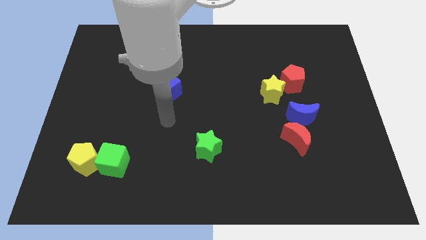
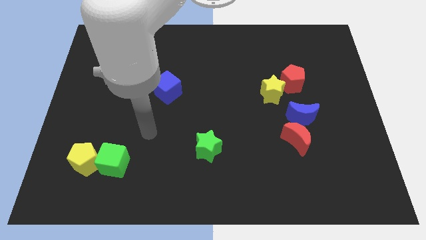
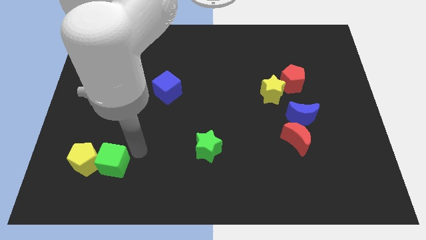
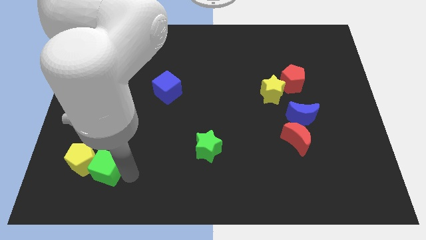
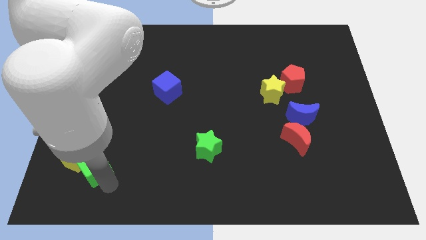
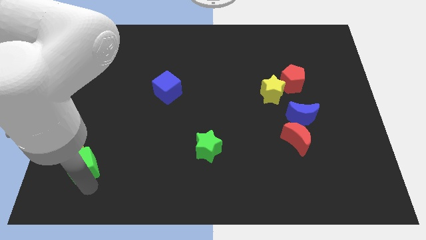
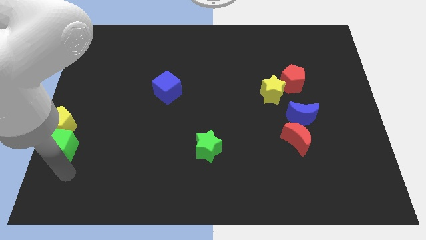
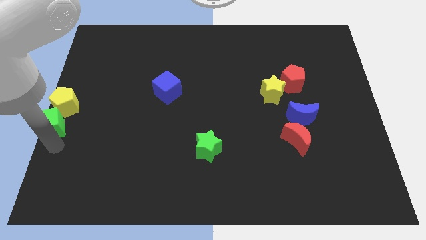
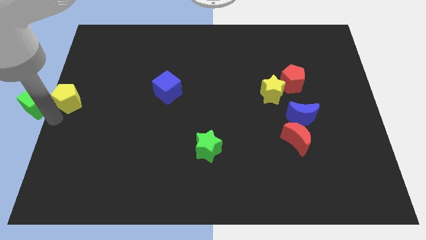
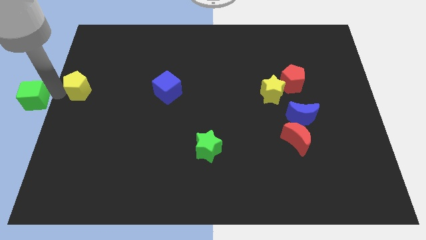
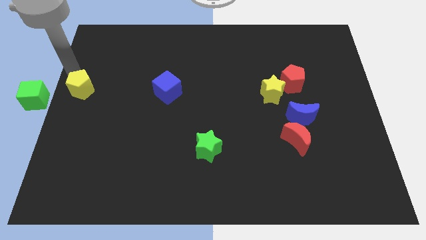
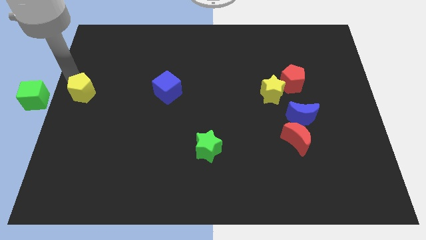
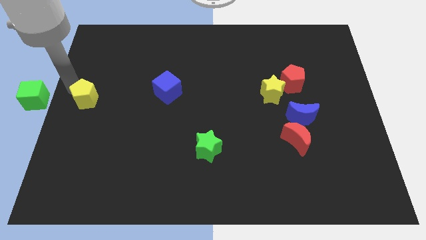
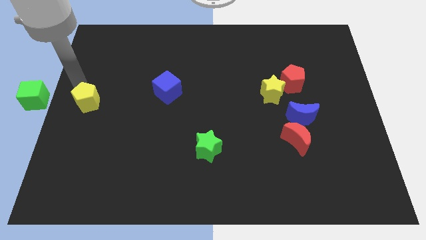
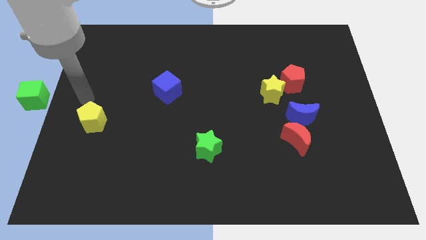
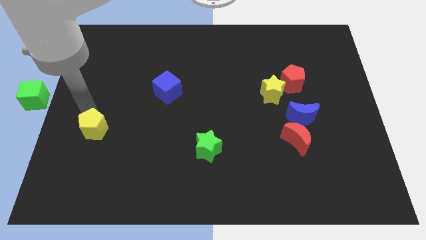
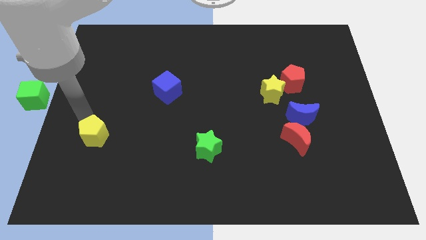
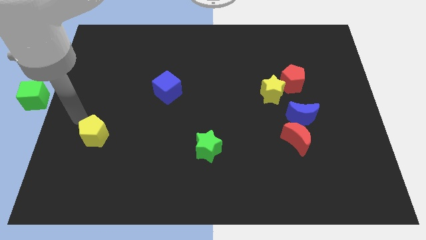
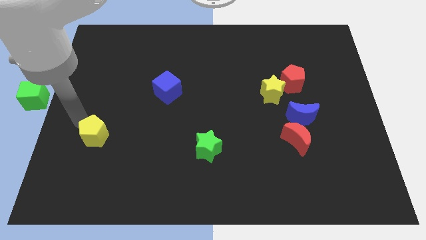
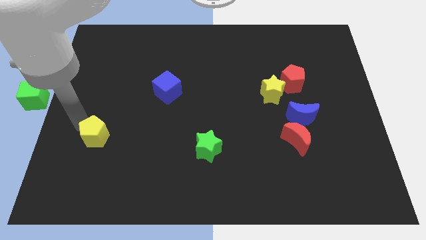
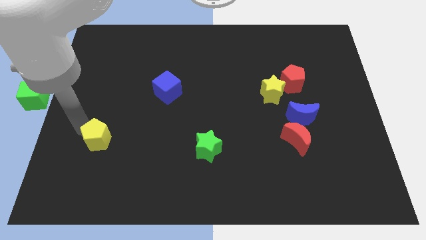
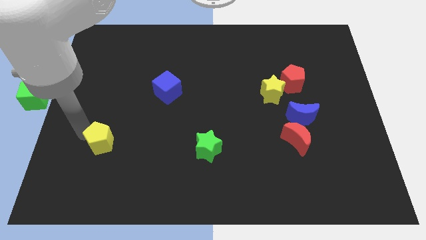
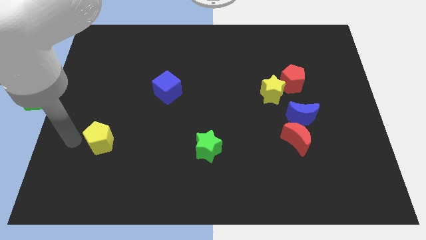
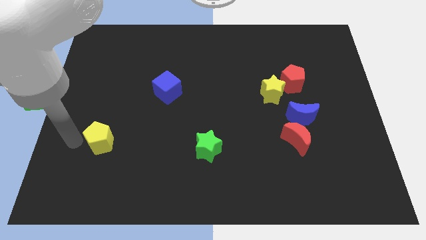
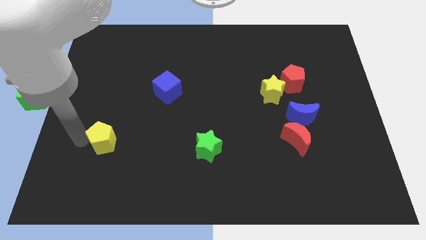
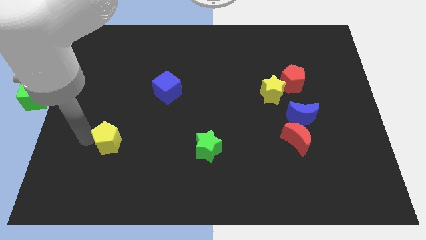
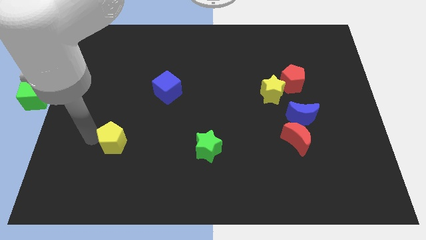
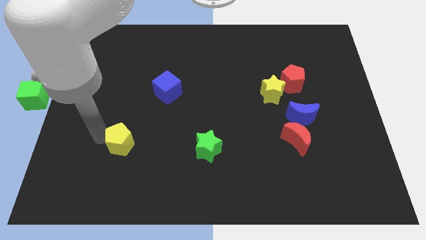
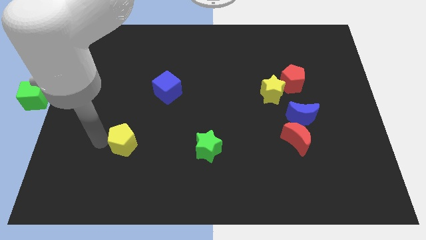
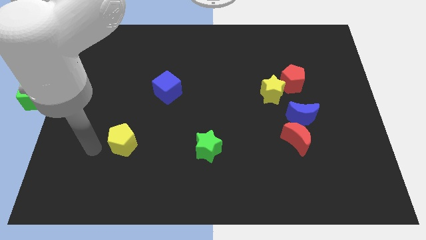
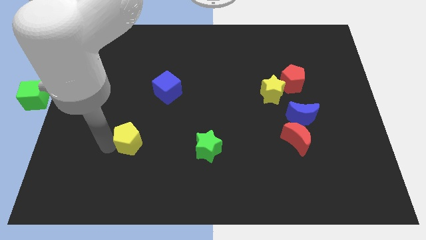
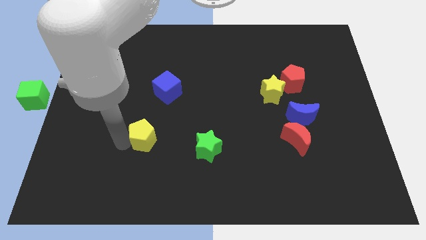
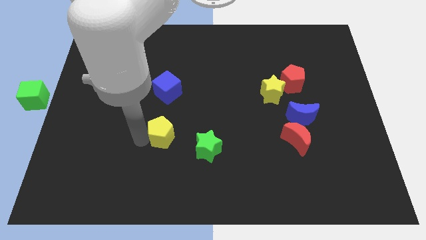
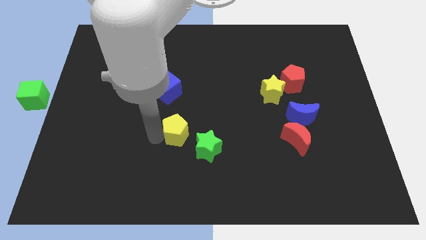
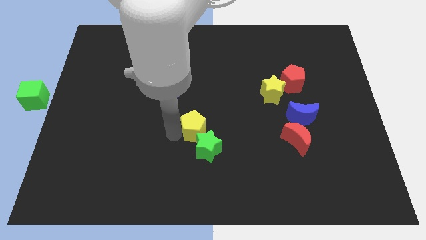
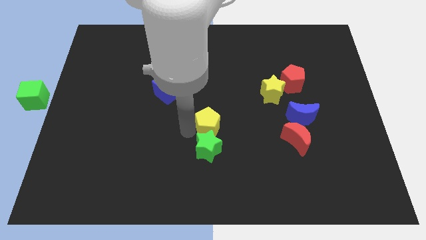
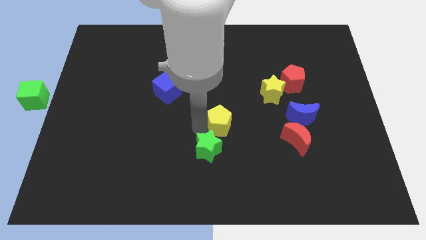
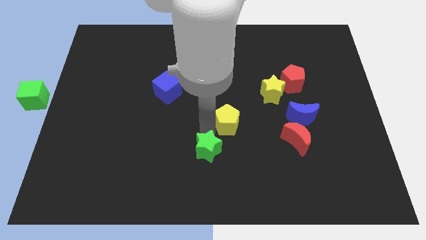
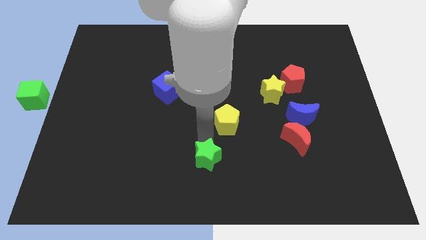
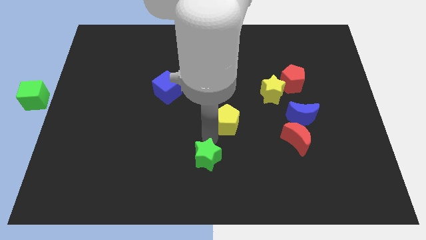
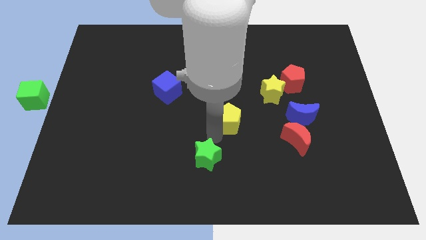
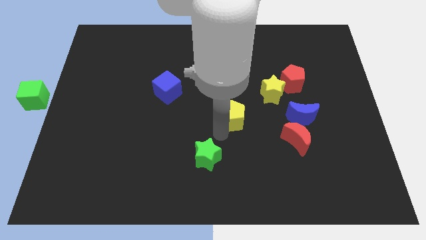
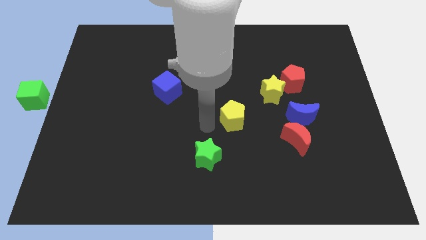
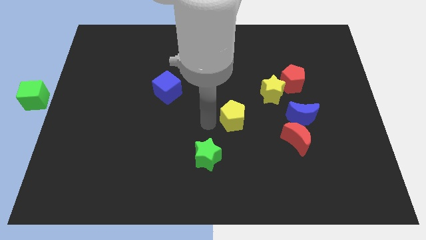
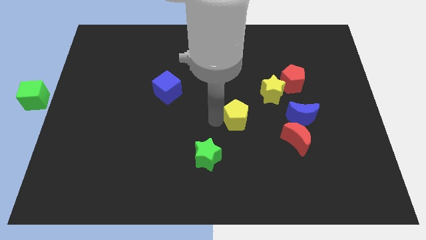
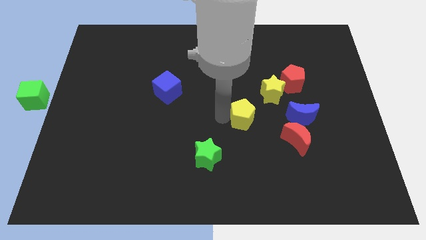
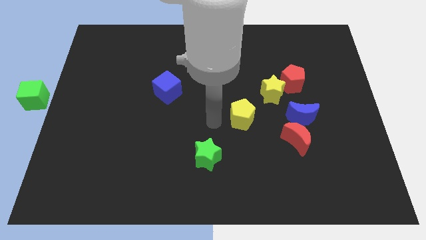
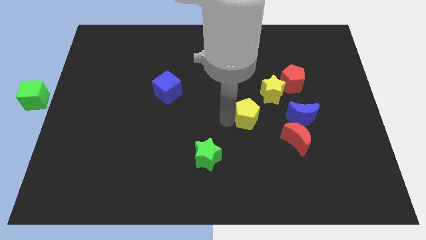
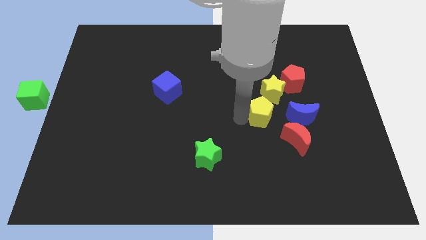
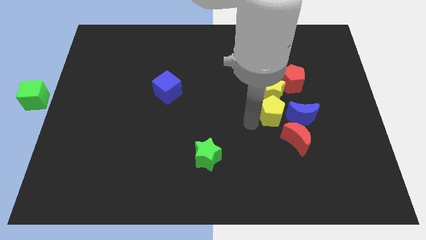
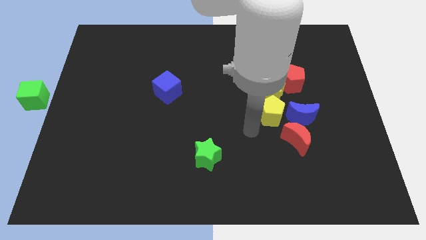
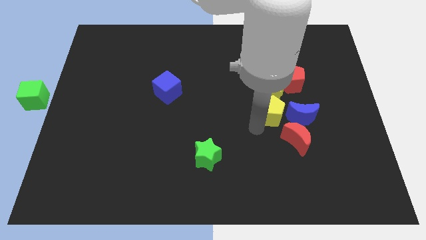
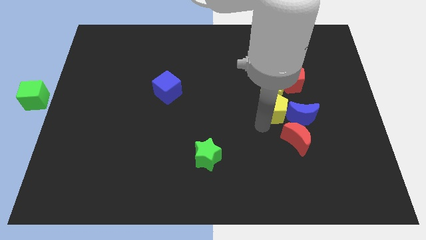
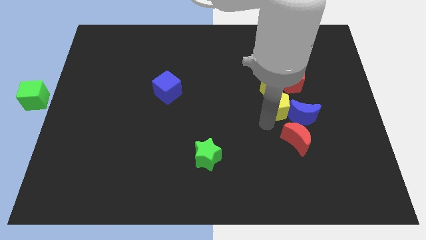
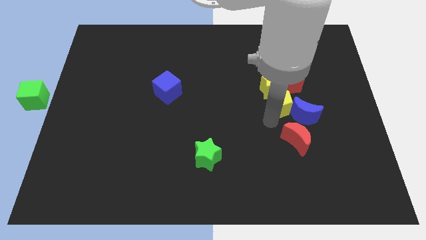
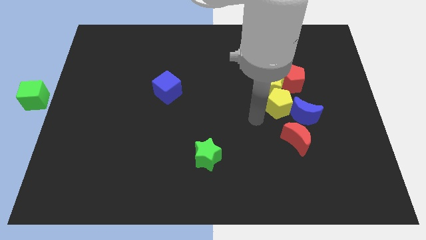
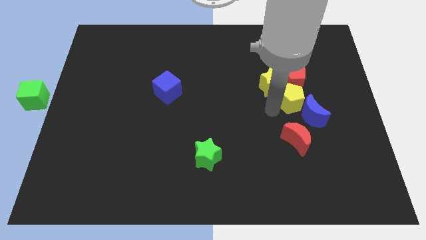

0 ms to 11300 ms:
push the yellow pentagon to the right side of the yellow star

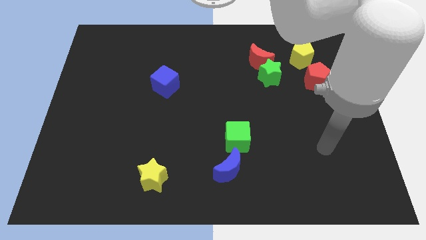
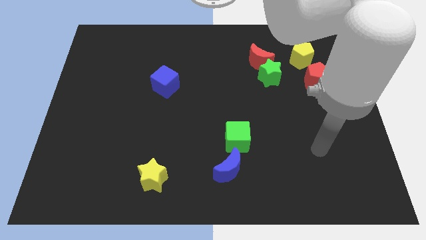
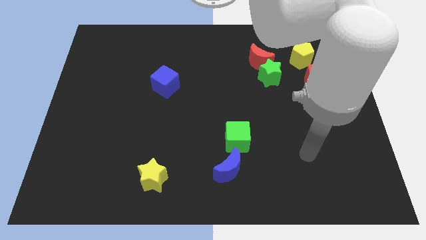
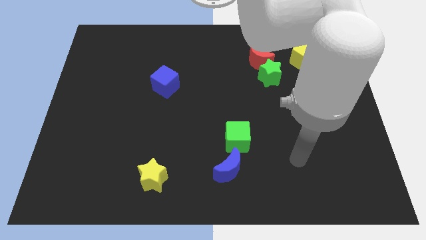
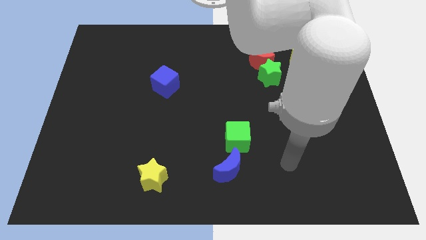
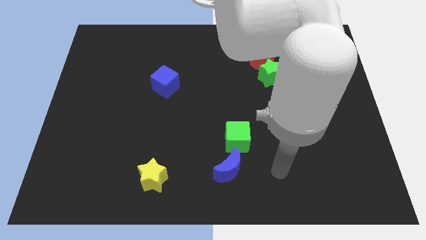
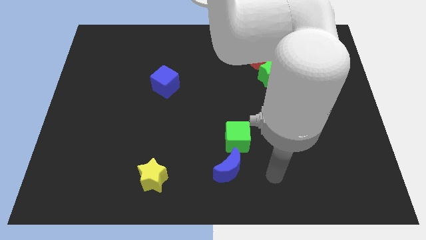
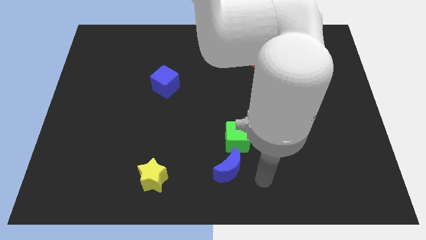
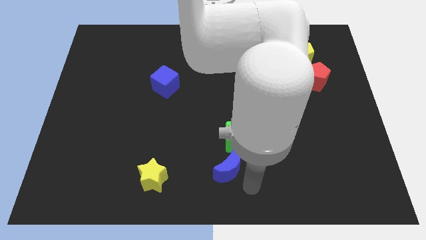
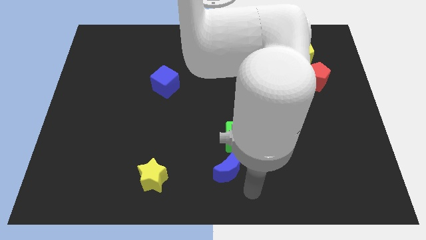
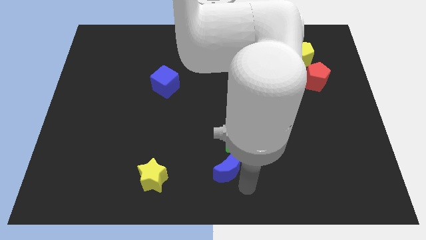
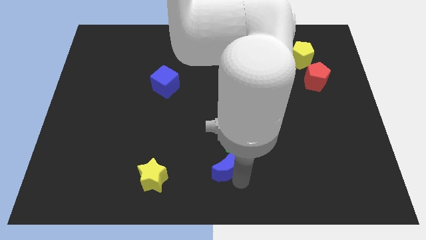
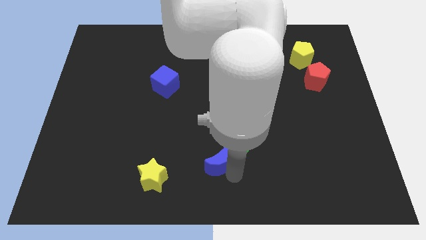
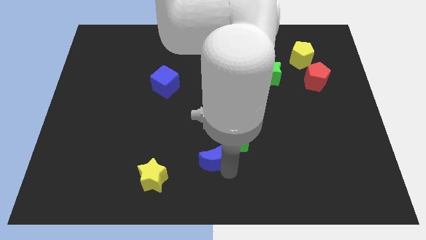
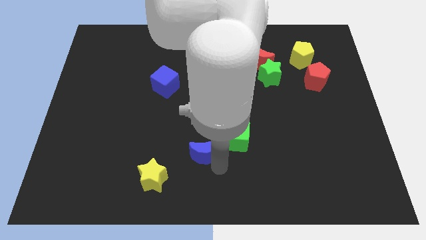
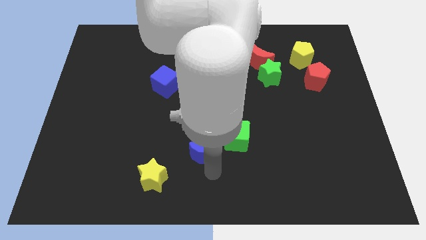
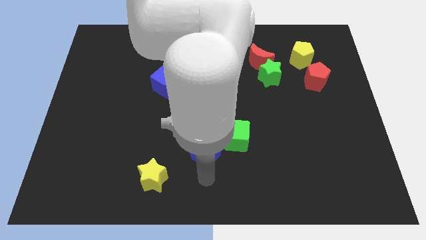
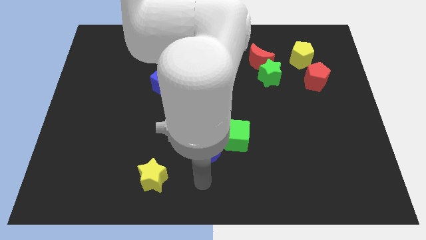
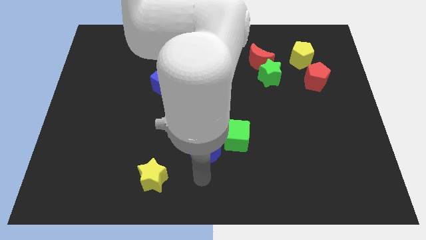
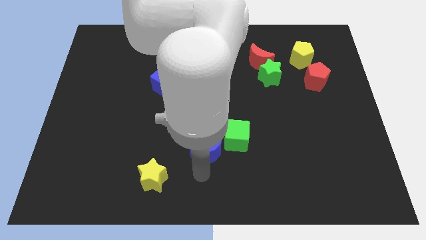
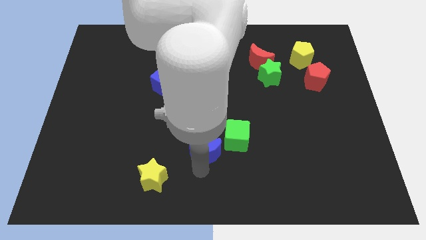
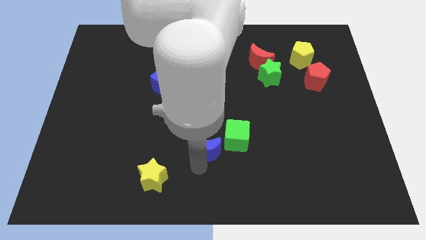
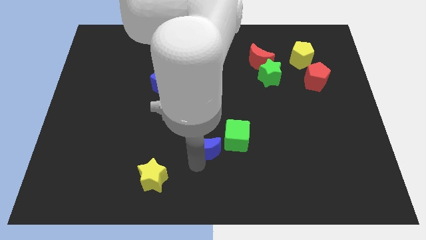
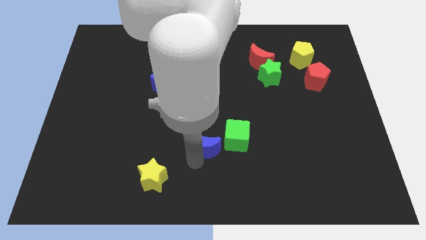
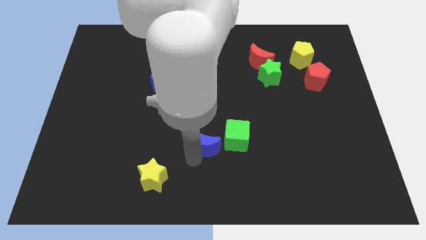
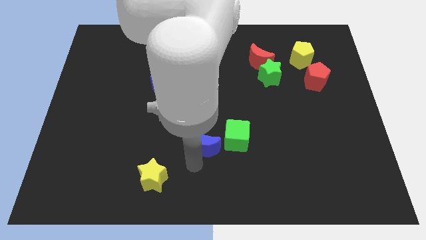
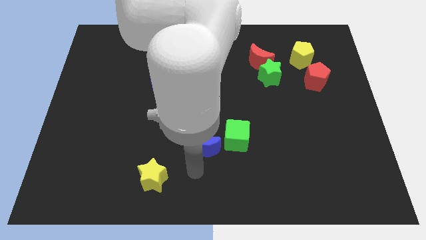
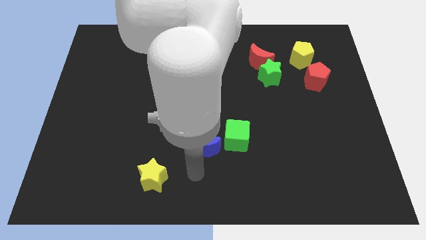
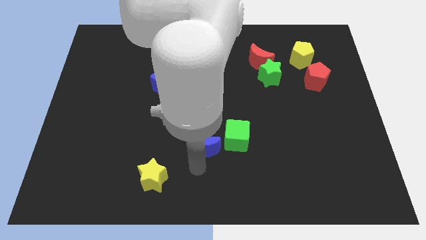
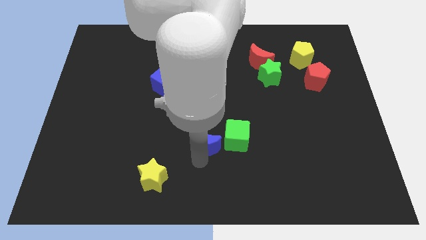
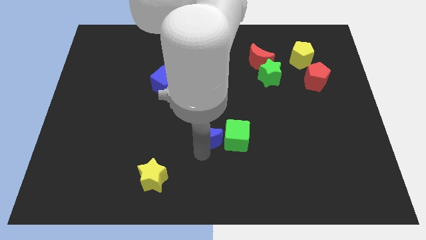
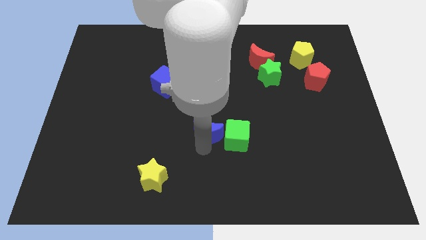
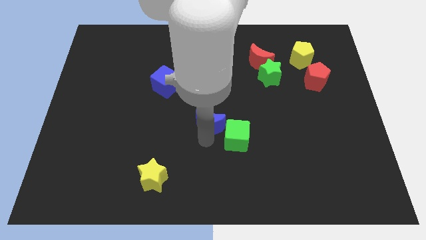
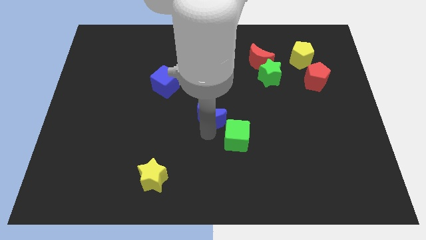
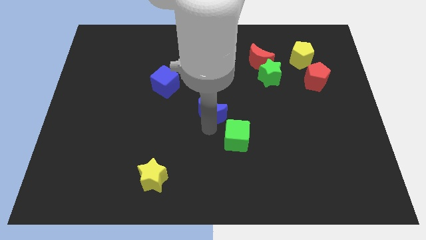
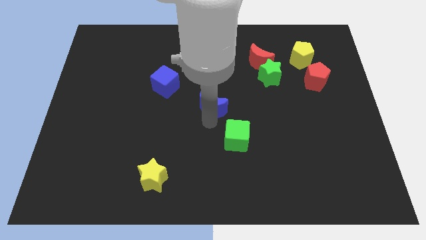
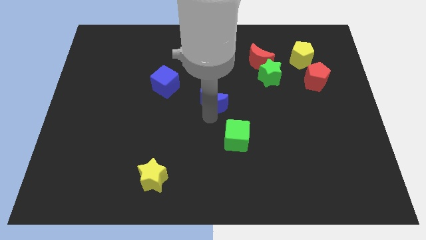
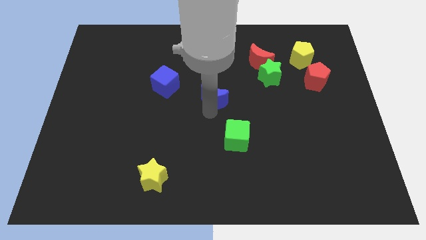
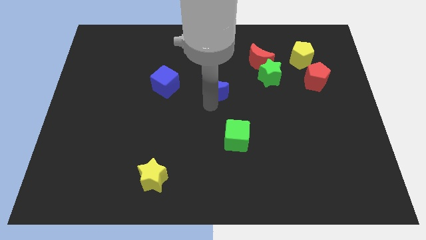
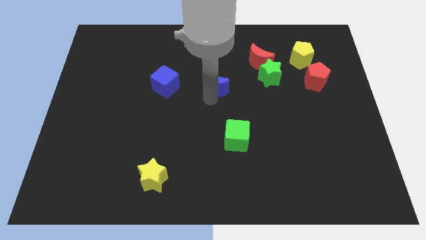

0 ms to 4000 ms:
slide the blue moon left of the green star
